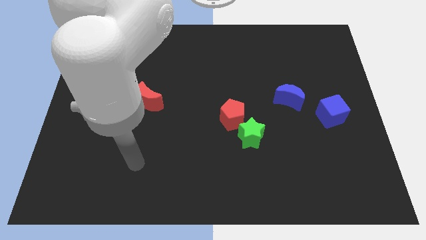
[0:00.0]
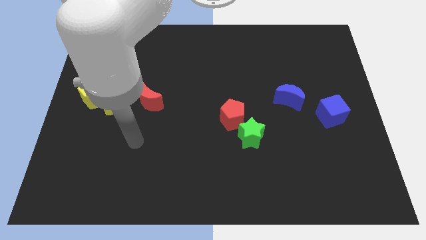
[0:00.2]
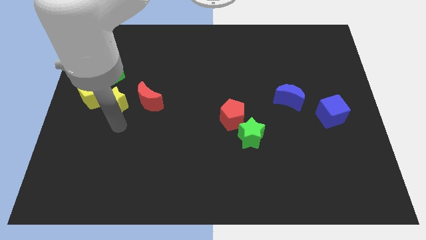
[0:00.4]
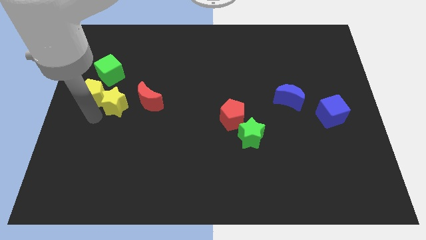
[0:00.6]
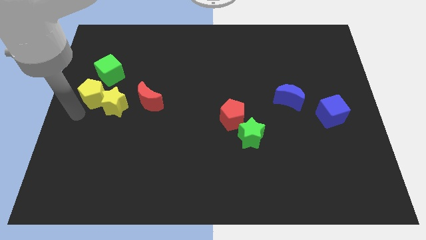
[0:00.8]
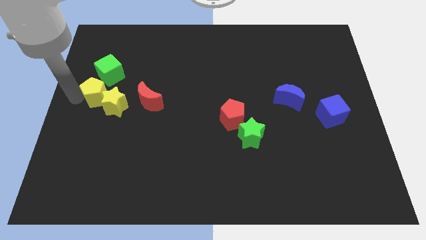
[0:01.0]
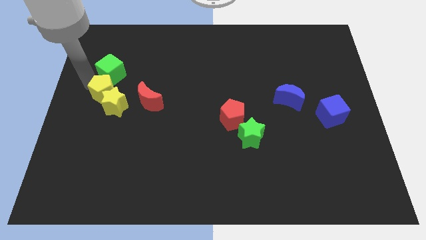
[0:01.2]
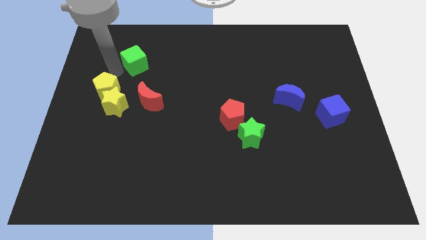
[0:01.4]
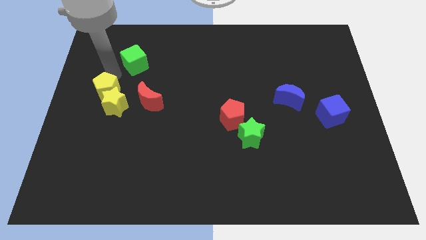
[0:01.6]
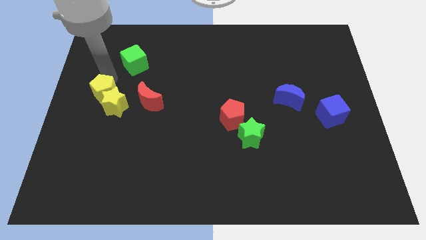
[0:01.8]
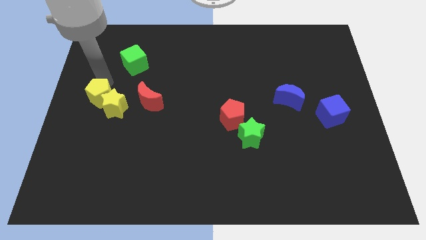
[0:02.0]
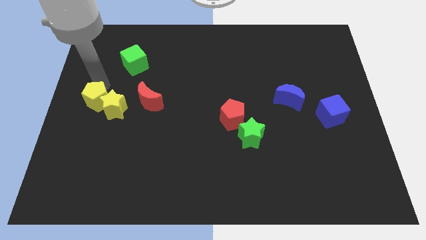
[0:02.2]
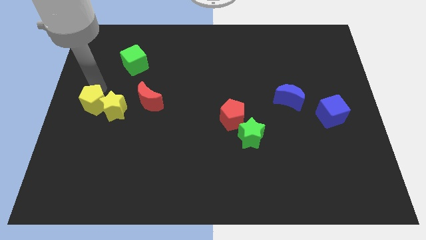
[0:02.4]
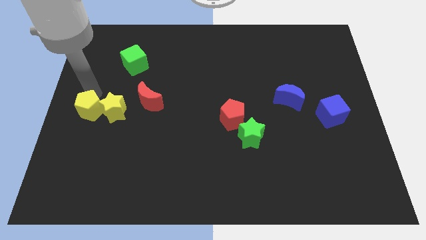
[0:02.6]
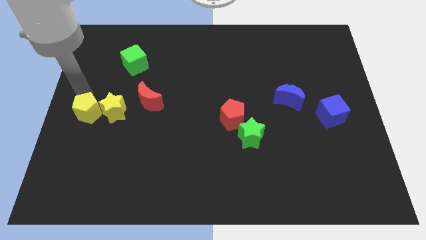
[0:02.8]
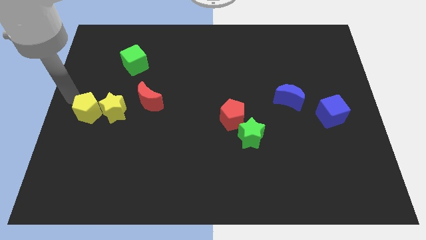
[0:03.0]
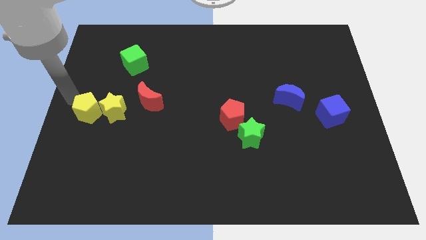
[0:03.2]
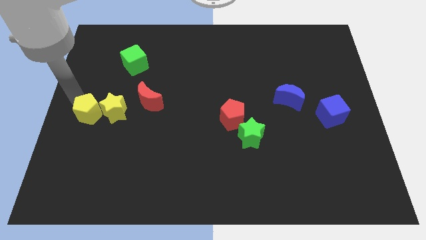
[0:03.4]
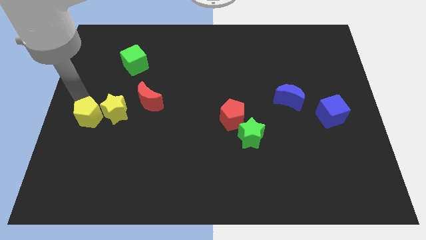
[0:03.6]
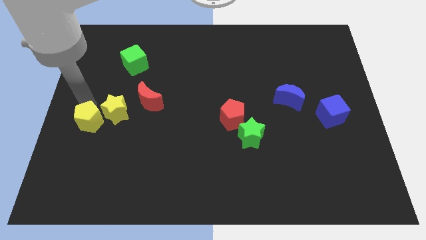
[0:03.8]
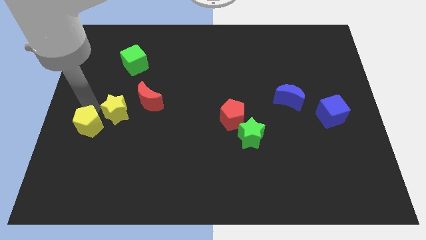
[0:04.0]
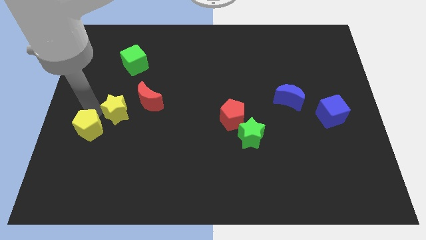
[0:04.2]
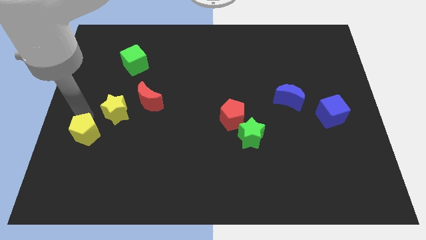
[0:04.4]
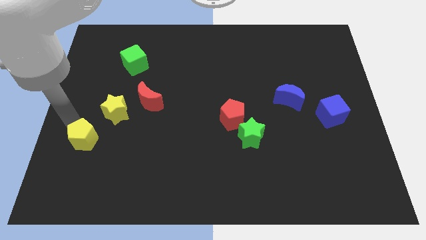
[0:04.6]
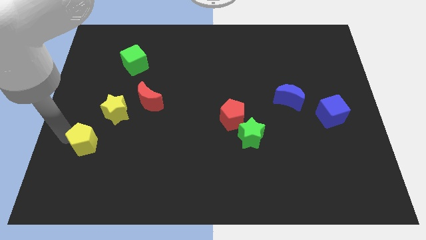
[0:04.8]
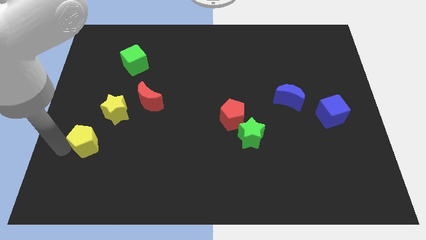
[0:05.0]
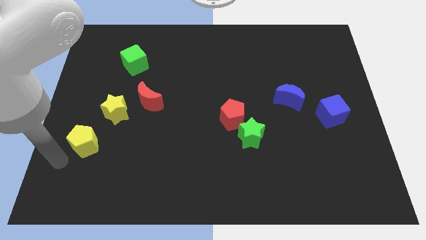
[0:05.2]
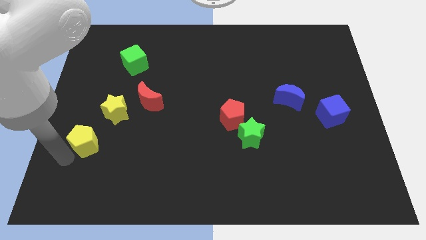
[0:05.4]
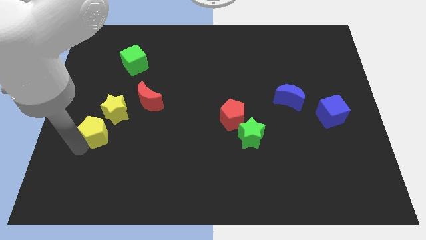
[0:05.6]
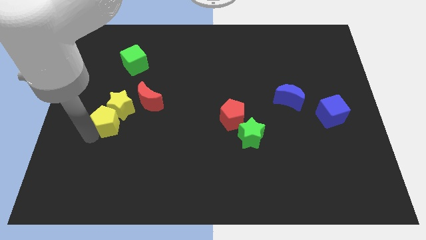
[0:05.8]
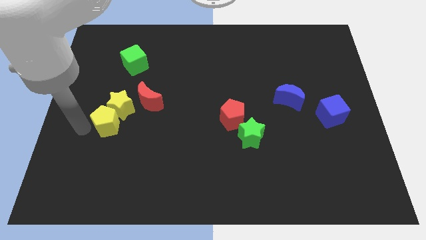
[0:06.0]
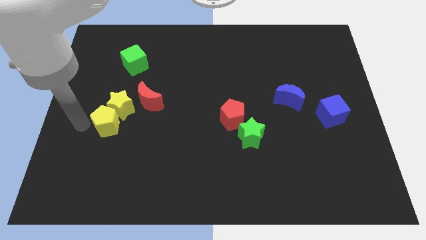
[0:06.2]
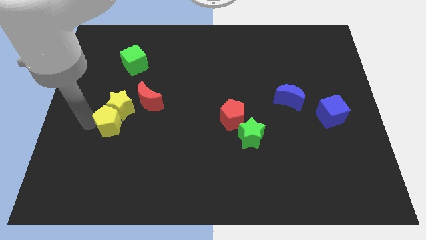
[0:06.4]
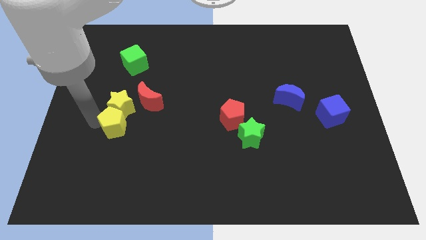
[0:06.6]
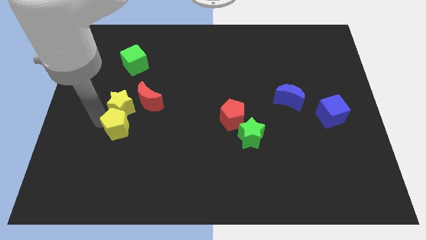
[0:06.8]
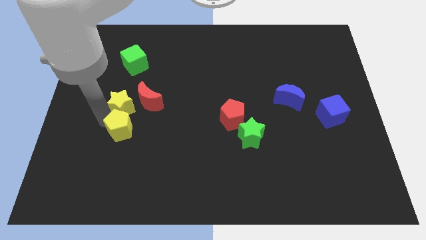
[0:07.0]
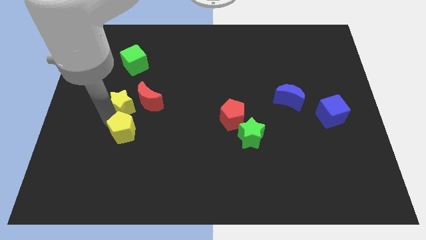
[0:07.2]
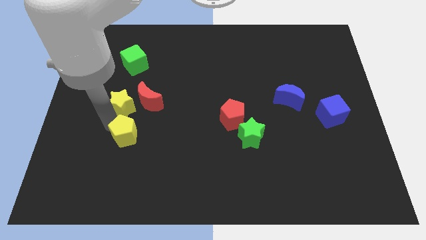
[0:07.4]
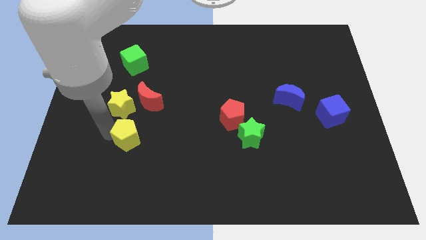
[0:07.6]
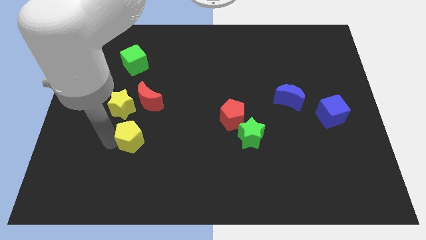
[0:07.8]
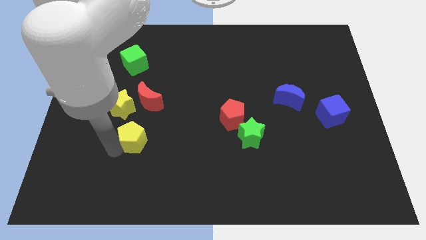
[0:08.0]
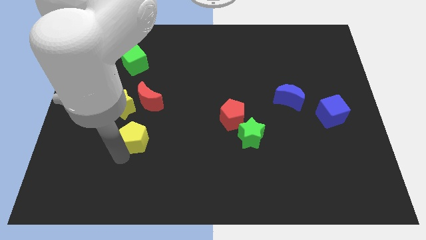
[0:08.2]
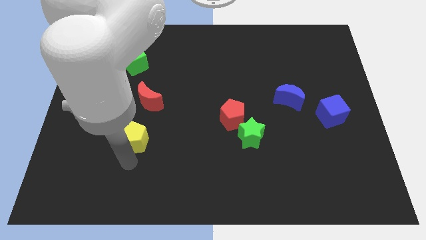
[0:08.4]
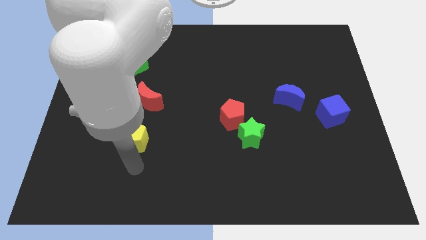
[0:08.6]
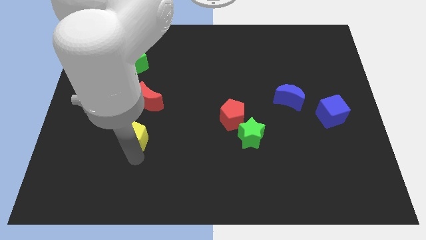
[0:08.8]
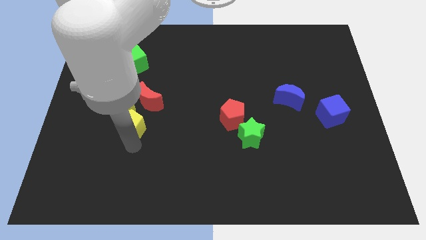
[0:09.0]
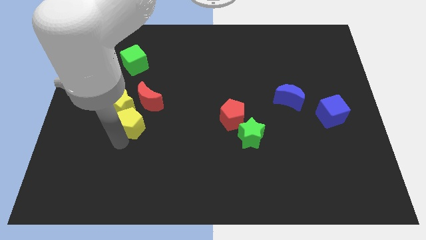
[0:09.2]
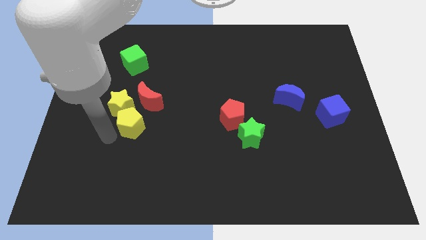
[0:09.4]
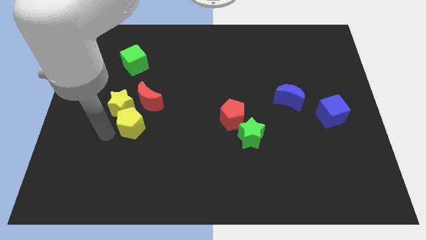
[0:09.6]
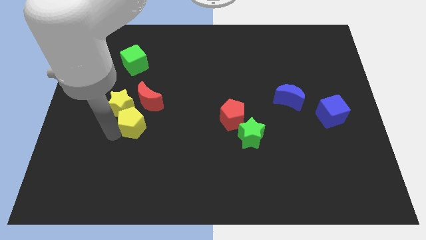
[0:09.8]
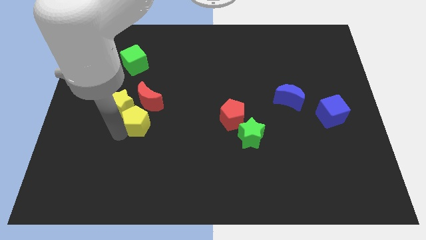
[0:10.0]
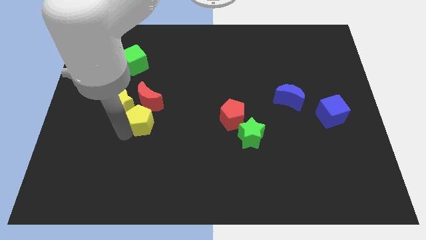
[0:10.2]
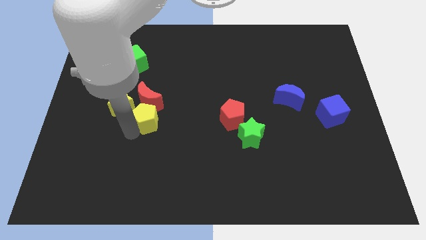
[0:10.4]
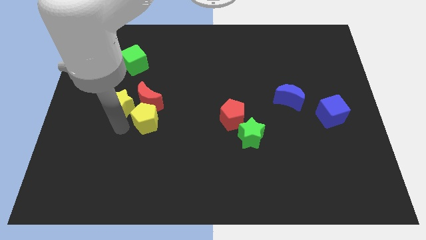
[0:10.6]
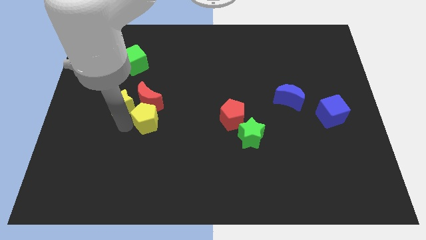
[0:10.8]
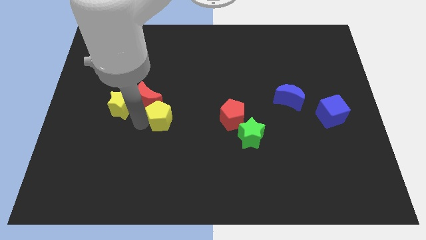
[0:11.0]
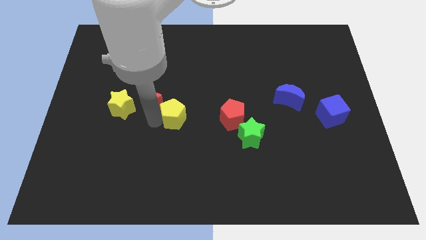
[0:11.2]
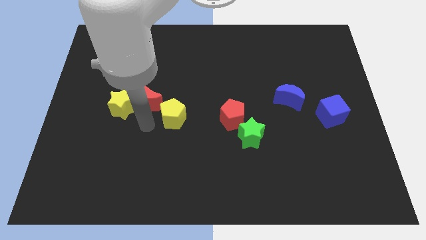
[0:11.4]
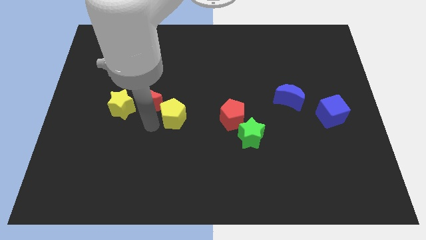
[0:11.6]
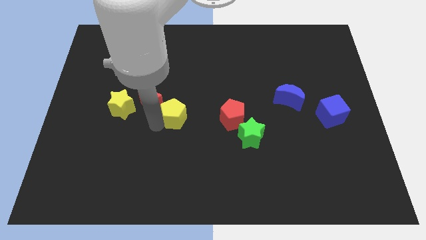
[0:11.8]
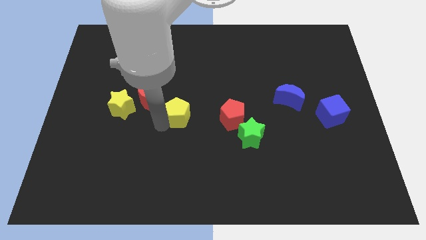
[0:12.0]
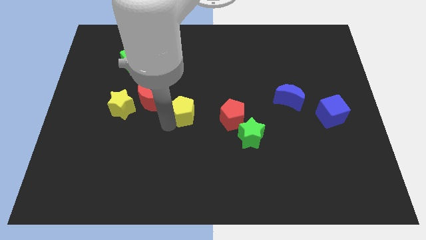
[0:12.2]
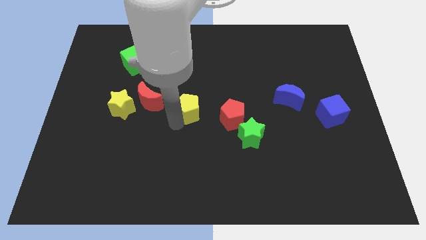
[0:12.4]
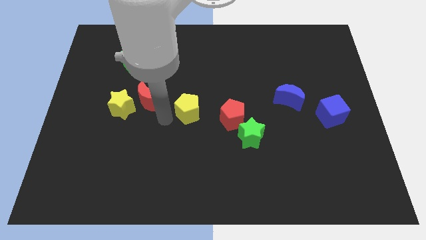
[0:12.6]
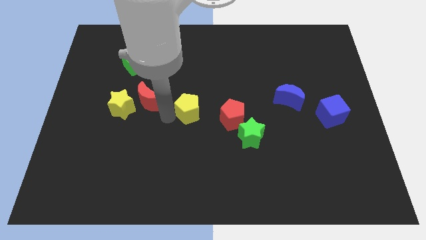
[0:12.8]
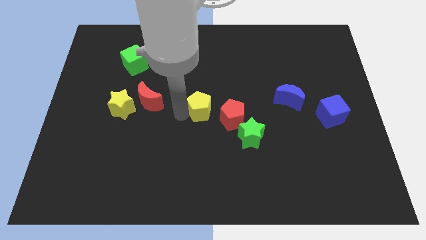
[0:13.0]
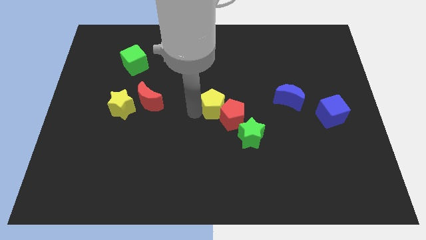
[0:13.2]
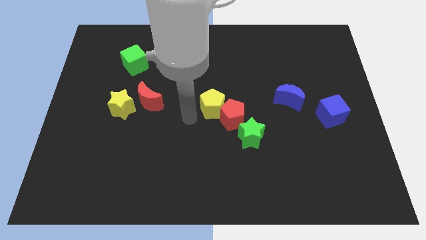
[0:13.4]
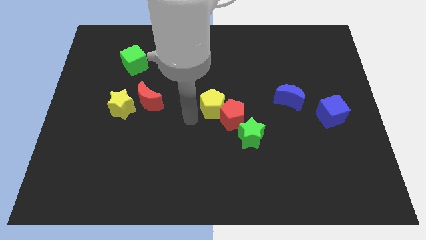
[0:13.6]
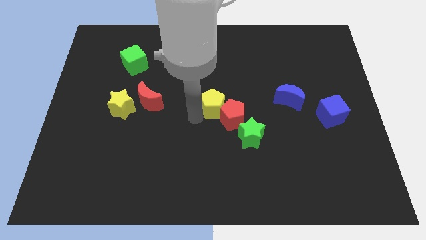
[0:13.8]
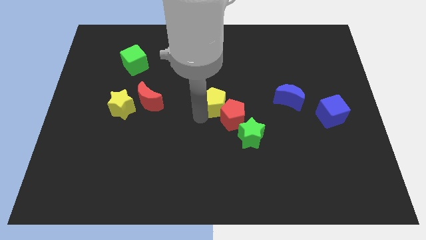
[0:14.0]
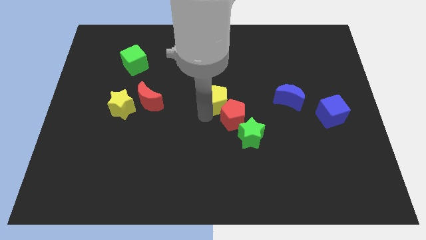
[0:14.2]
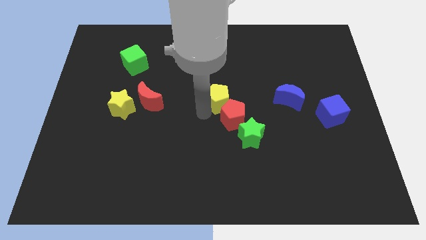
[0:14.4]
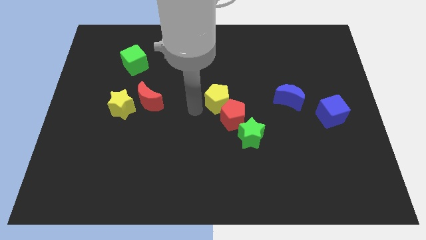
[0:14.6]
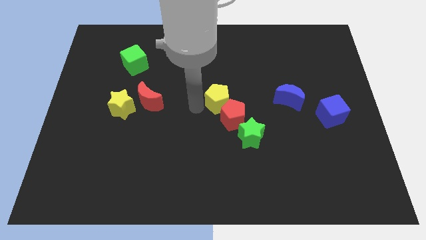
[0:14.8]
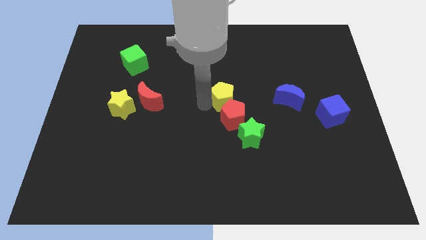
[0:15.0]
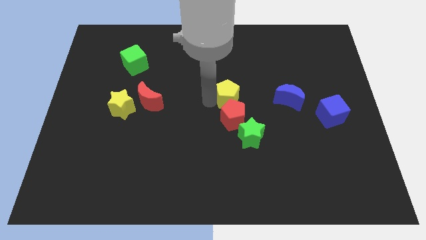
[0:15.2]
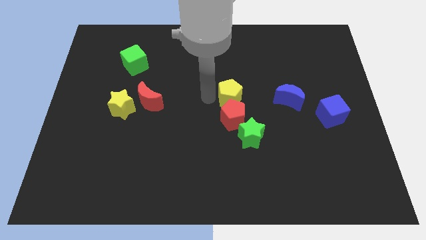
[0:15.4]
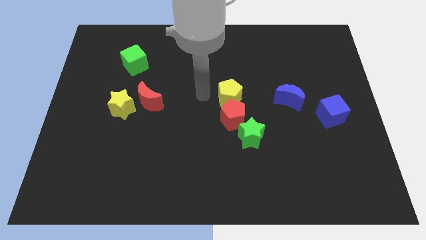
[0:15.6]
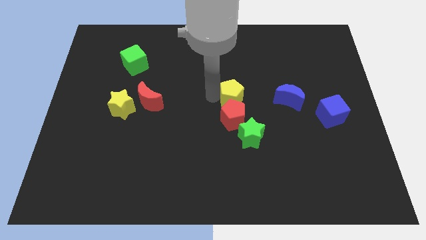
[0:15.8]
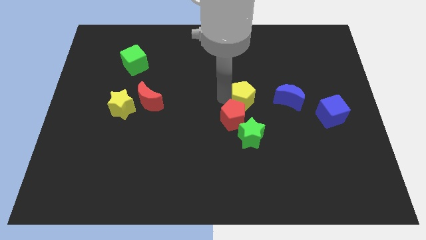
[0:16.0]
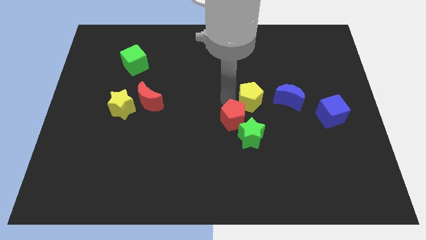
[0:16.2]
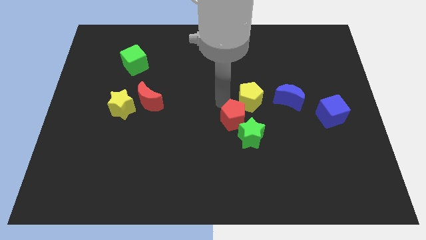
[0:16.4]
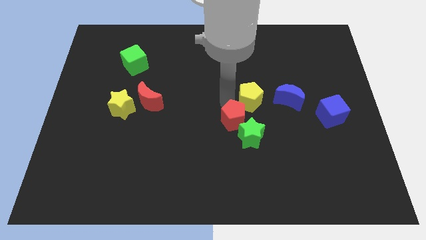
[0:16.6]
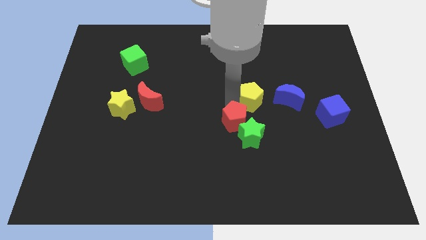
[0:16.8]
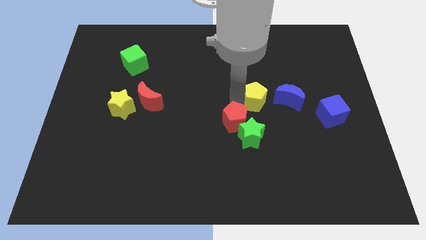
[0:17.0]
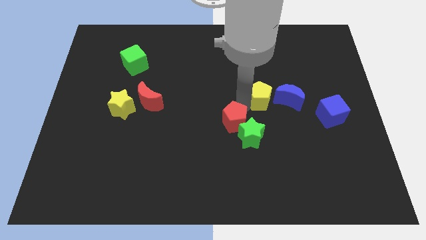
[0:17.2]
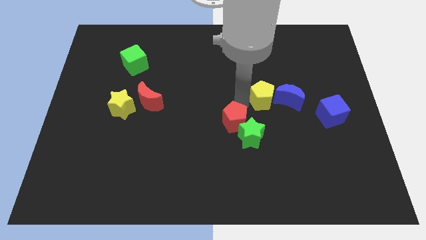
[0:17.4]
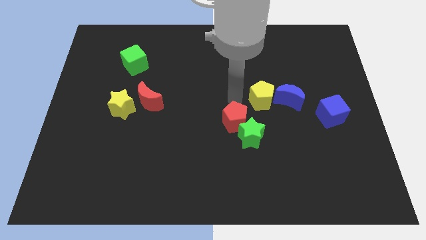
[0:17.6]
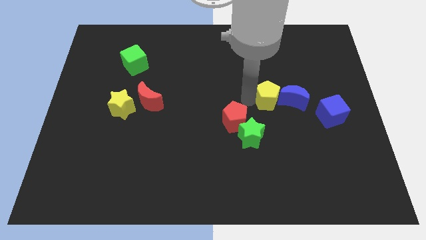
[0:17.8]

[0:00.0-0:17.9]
move the yellow pentagon close to the blue moon
